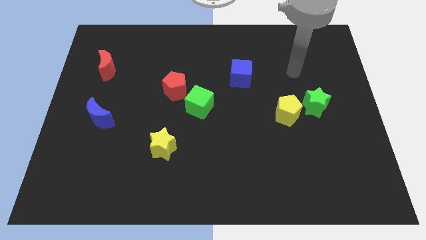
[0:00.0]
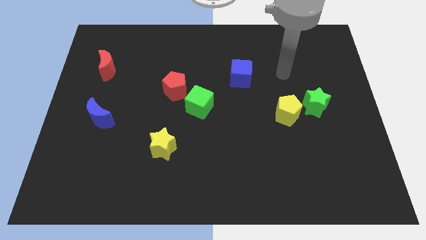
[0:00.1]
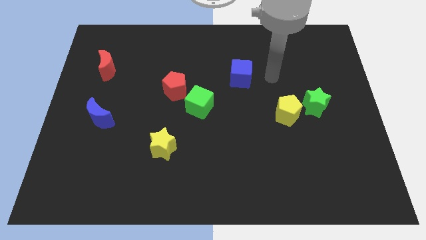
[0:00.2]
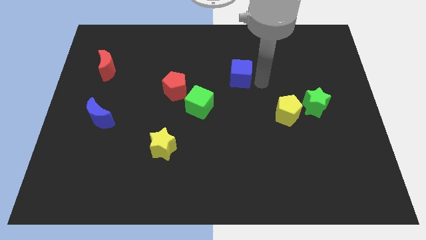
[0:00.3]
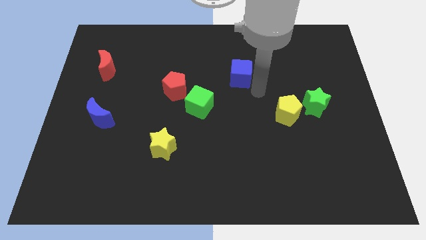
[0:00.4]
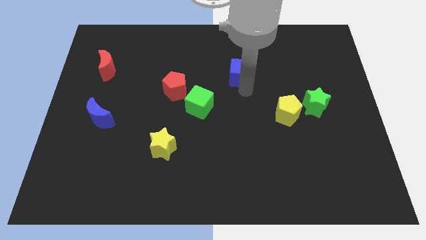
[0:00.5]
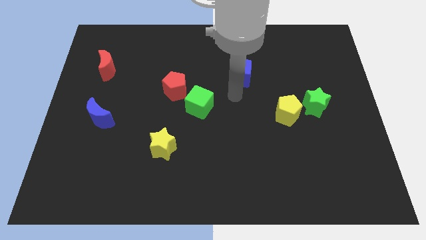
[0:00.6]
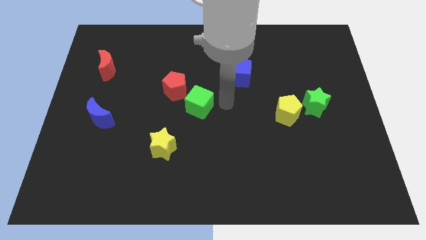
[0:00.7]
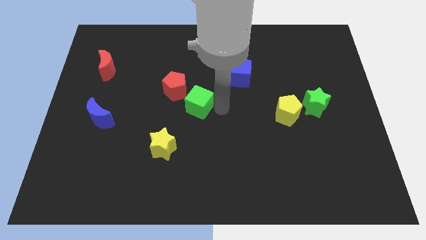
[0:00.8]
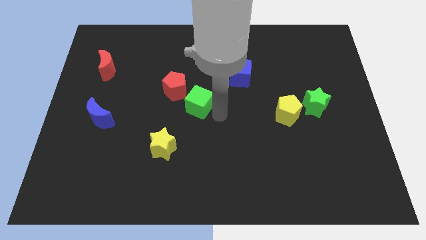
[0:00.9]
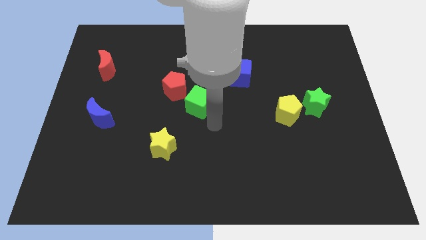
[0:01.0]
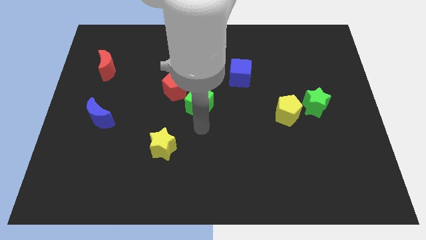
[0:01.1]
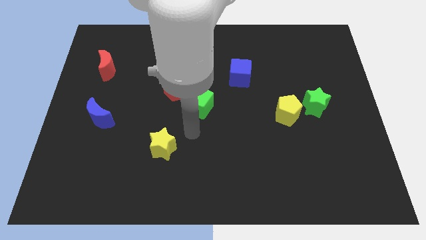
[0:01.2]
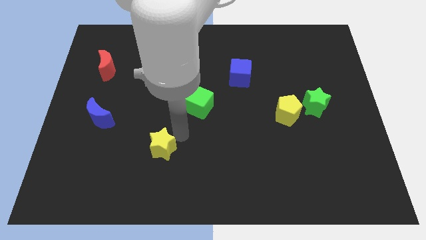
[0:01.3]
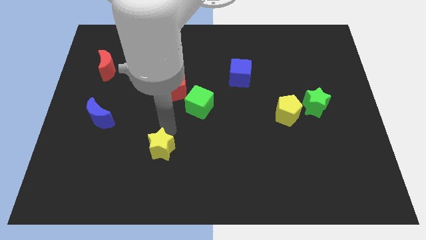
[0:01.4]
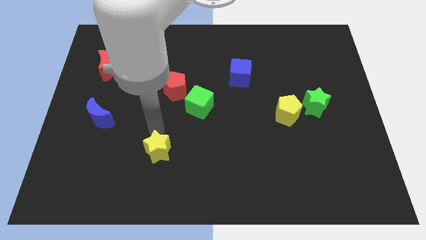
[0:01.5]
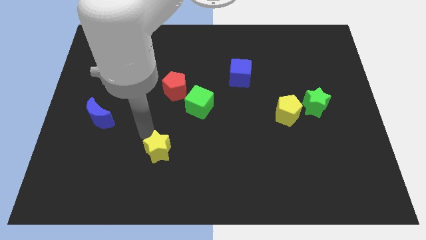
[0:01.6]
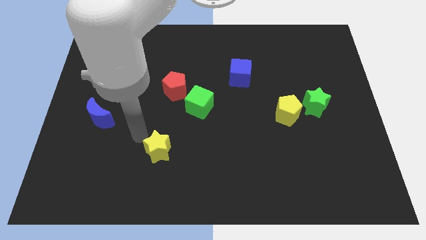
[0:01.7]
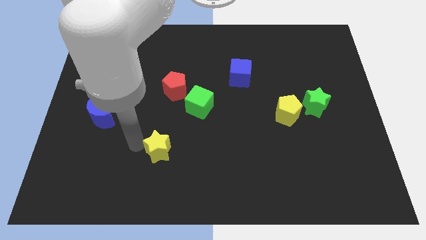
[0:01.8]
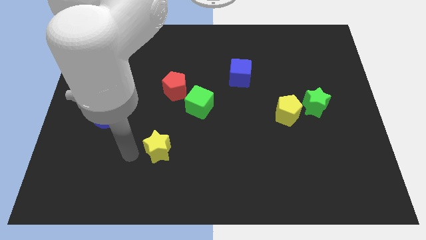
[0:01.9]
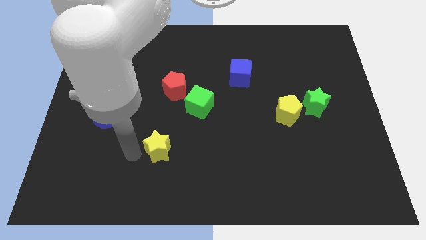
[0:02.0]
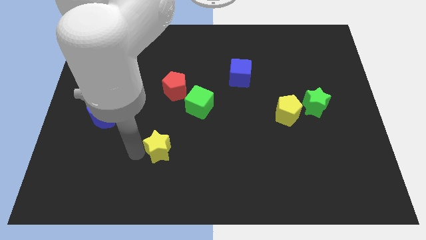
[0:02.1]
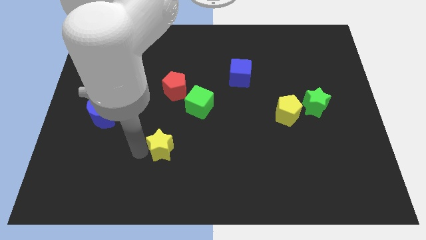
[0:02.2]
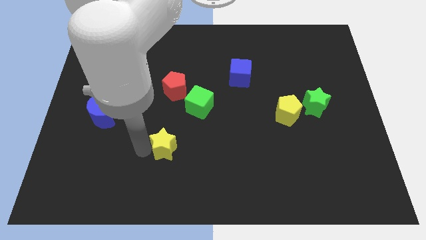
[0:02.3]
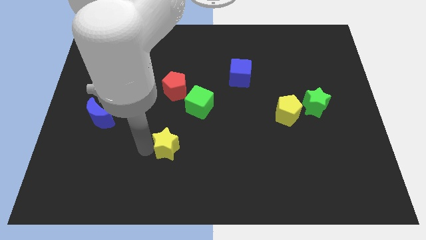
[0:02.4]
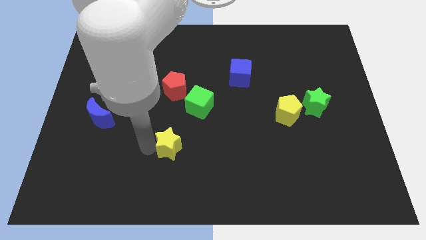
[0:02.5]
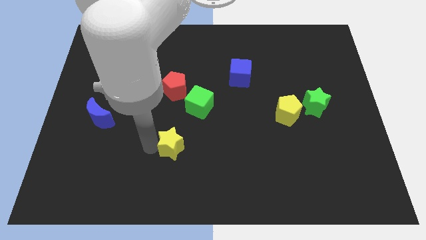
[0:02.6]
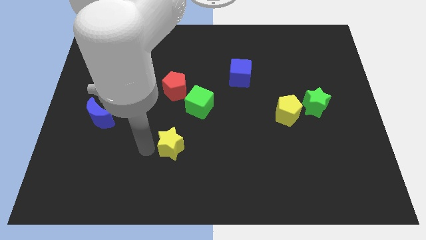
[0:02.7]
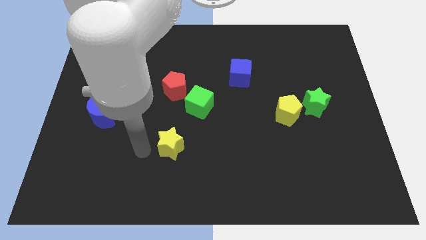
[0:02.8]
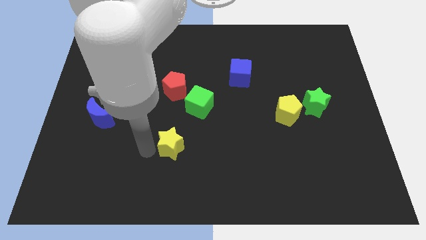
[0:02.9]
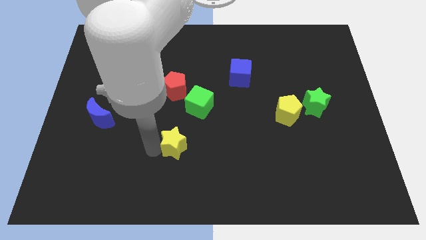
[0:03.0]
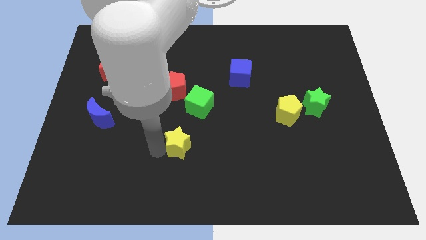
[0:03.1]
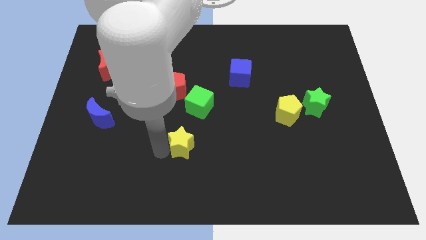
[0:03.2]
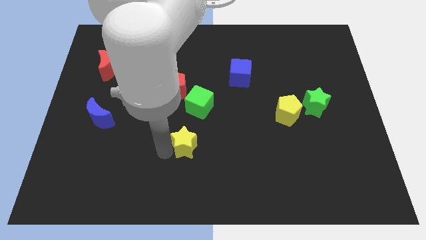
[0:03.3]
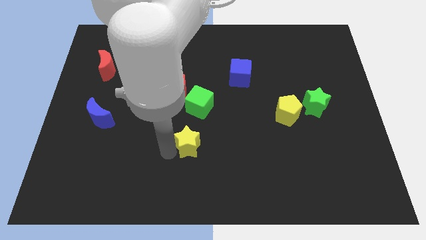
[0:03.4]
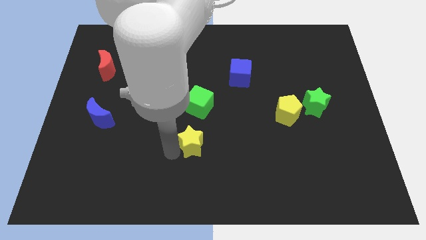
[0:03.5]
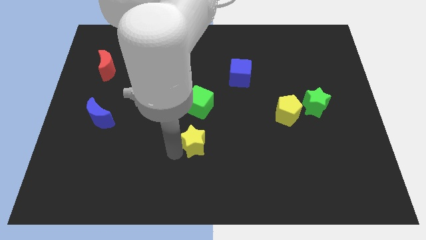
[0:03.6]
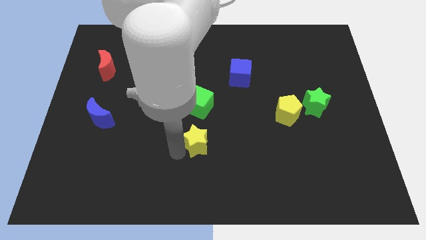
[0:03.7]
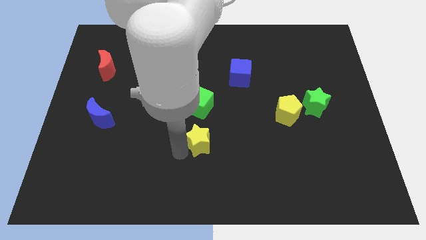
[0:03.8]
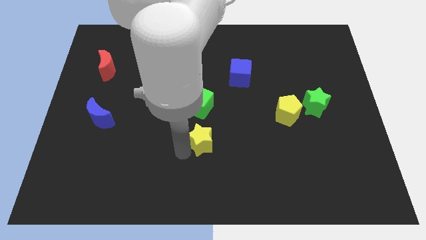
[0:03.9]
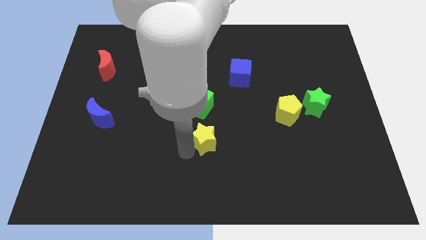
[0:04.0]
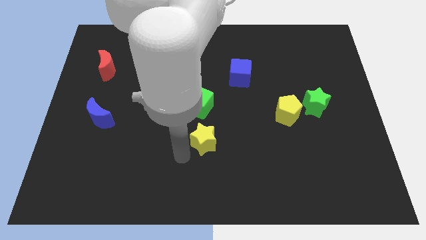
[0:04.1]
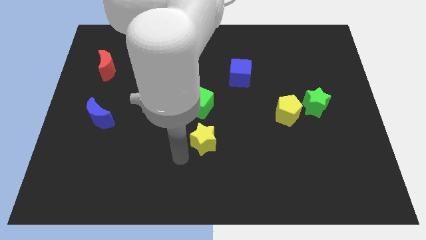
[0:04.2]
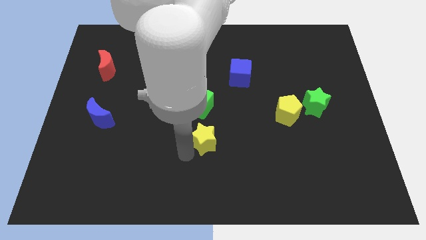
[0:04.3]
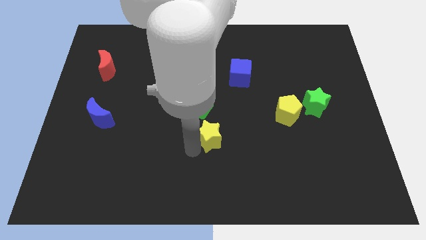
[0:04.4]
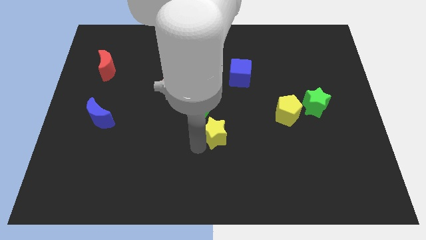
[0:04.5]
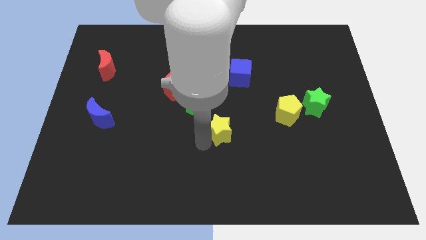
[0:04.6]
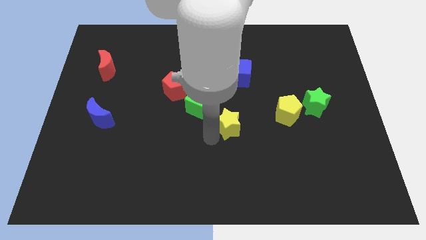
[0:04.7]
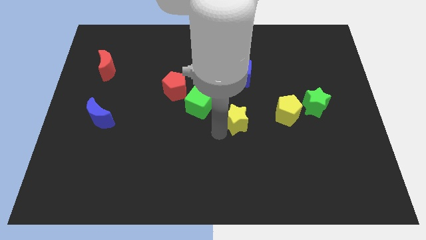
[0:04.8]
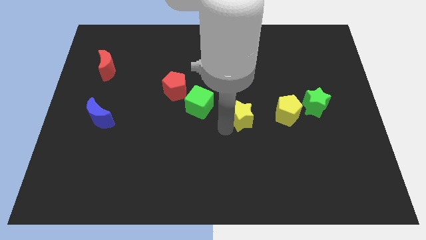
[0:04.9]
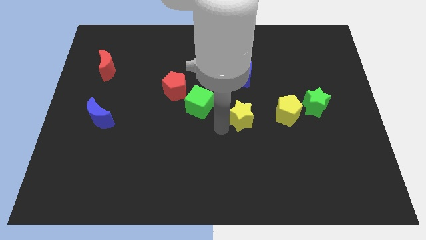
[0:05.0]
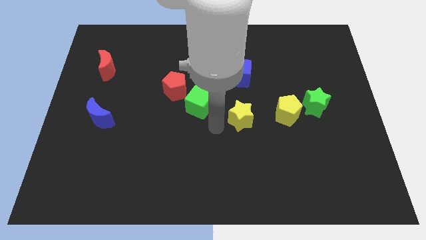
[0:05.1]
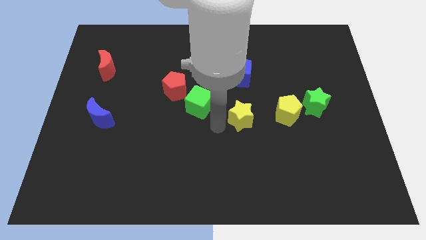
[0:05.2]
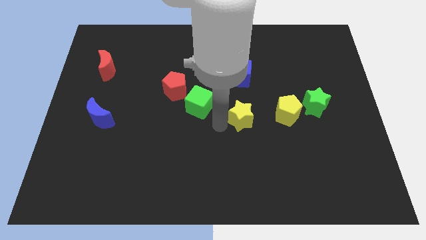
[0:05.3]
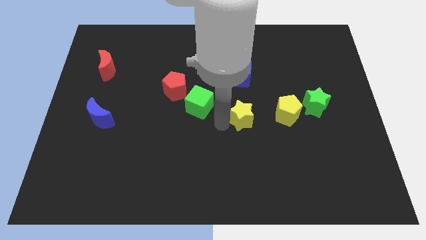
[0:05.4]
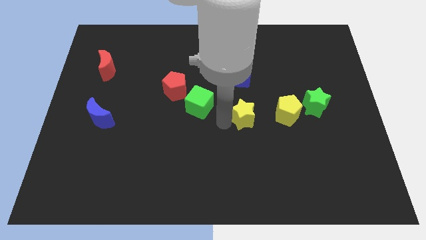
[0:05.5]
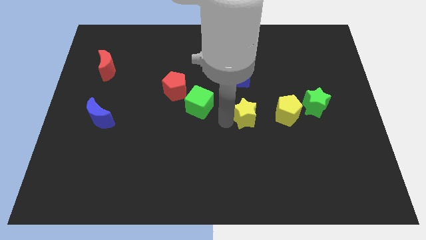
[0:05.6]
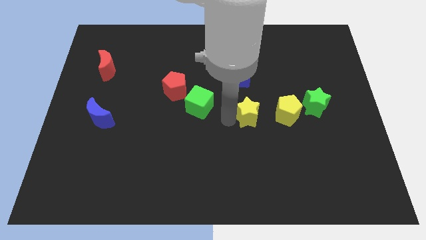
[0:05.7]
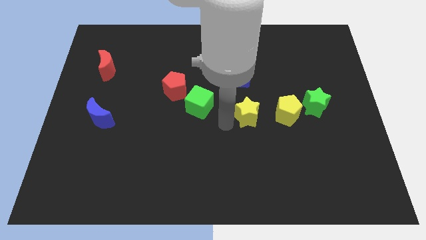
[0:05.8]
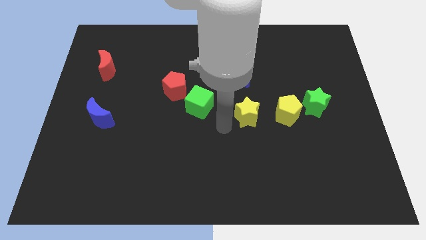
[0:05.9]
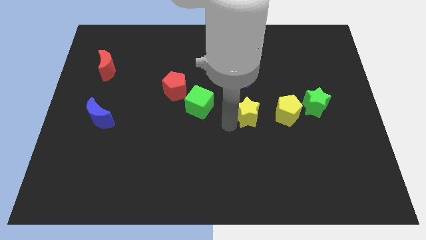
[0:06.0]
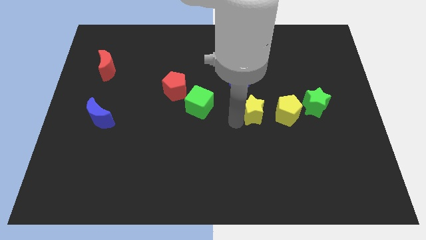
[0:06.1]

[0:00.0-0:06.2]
push the yellow star to the left of the green star

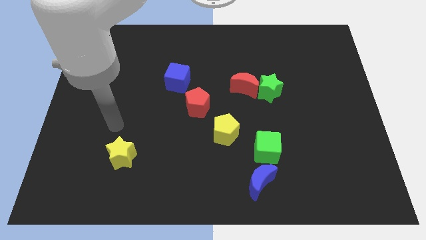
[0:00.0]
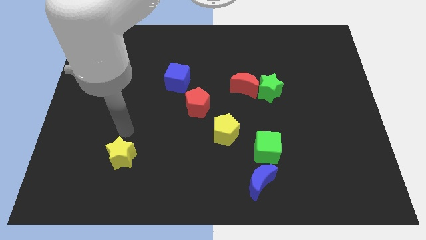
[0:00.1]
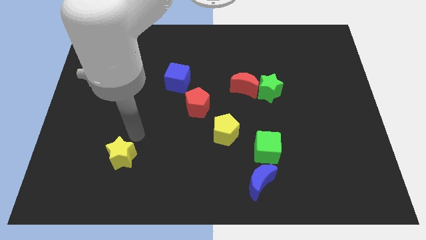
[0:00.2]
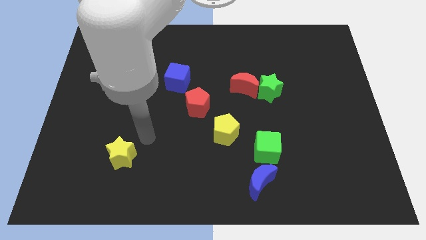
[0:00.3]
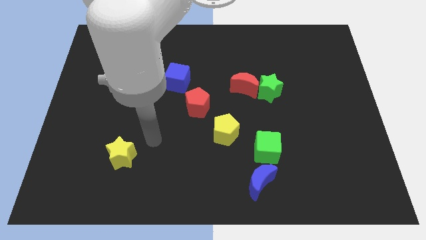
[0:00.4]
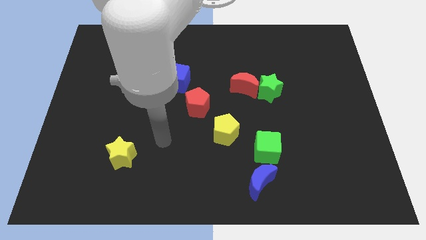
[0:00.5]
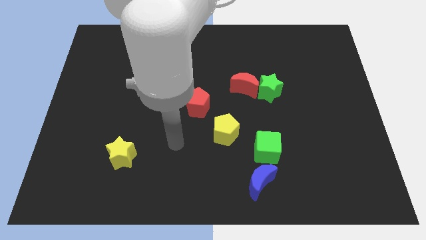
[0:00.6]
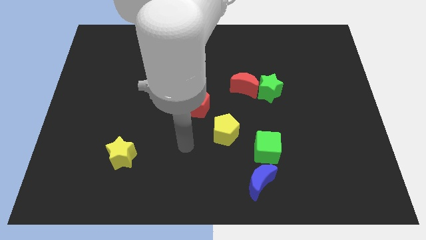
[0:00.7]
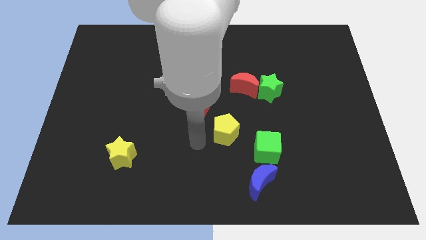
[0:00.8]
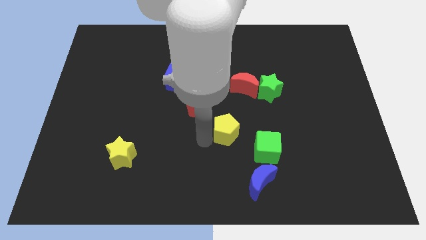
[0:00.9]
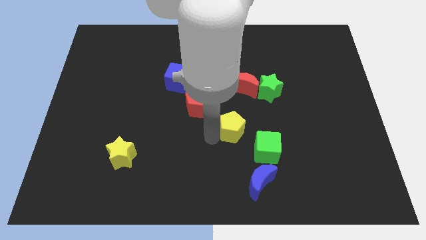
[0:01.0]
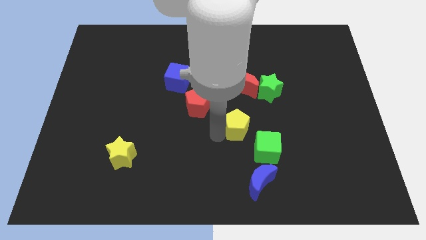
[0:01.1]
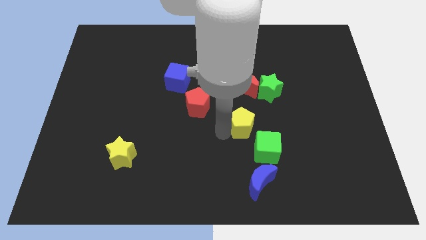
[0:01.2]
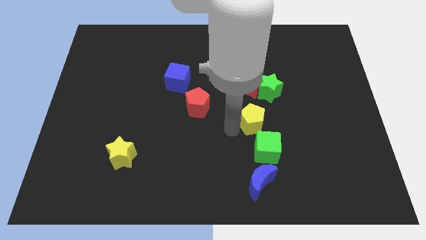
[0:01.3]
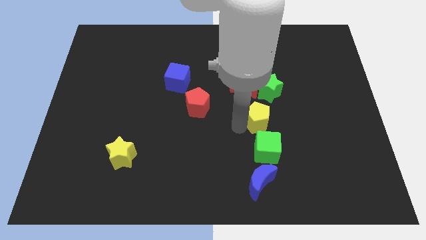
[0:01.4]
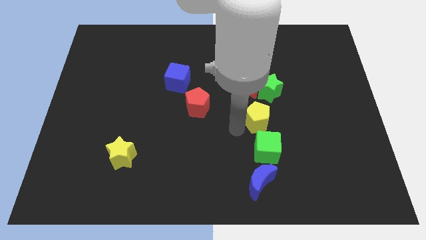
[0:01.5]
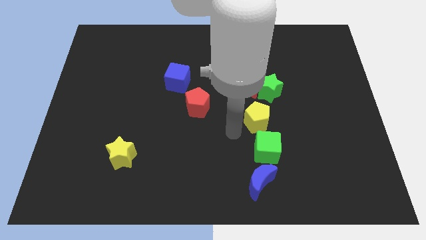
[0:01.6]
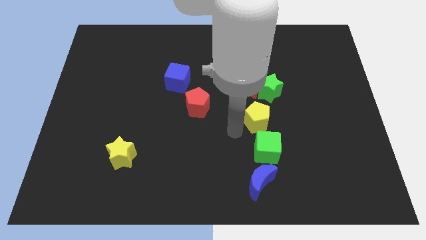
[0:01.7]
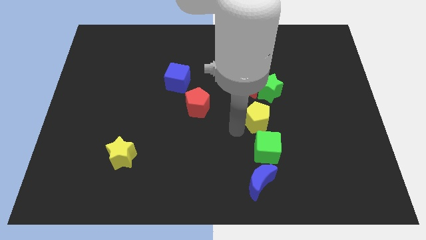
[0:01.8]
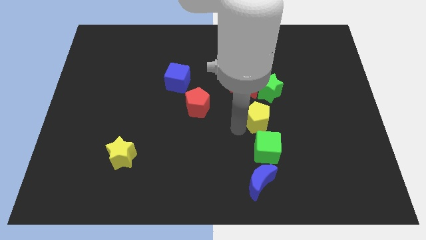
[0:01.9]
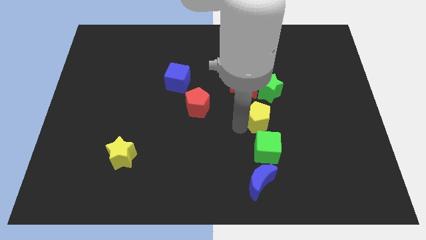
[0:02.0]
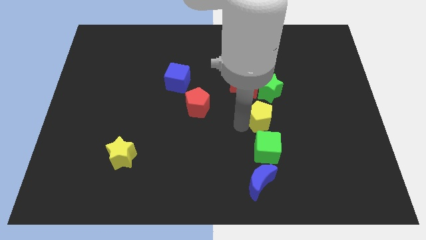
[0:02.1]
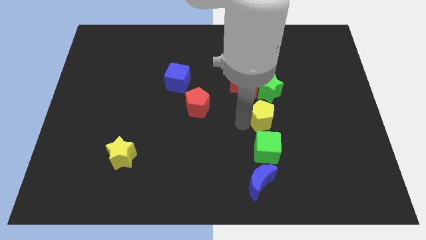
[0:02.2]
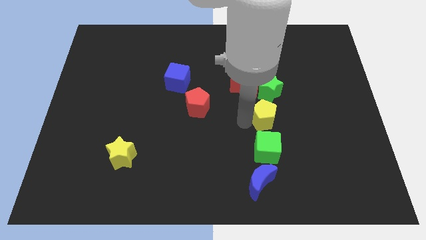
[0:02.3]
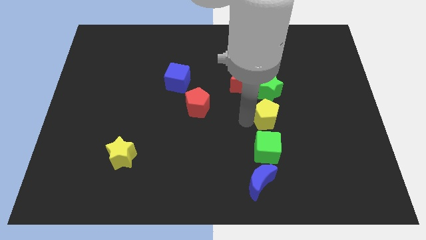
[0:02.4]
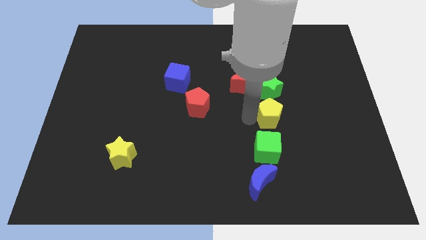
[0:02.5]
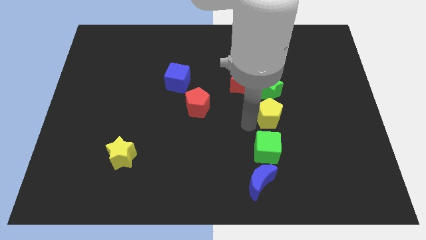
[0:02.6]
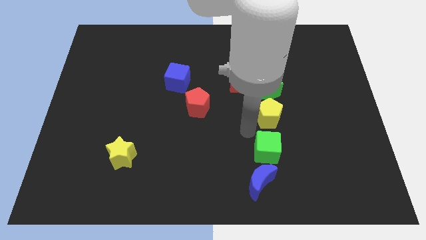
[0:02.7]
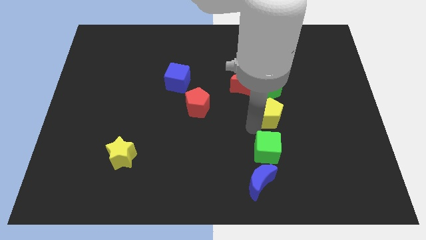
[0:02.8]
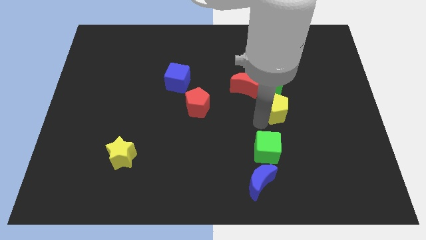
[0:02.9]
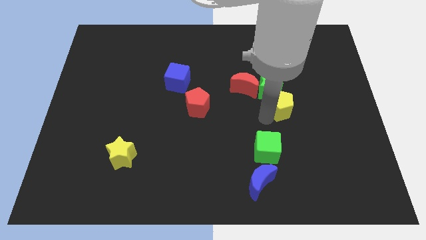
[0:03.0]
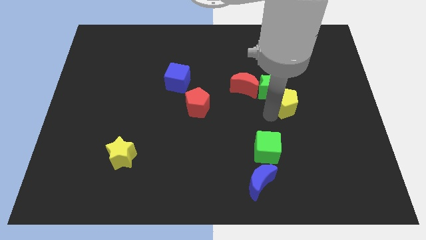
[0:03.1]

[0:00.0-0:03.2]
push the yellow pentagon to the right of the green star
